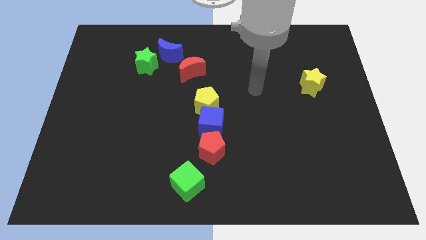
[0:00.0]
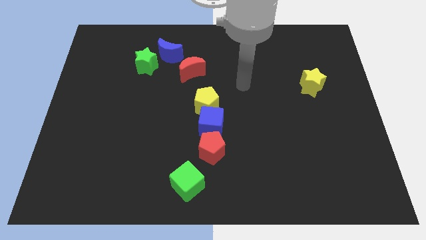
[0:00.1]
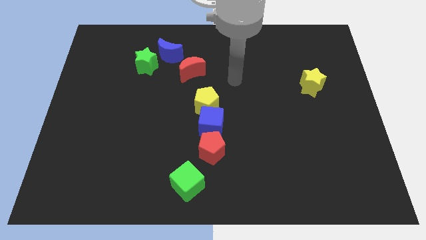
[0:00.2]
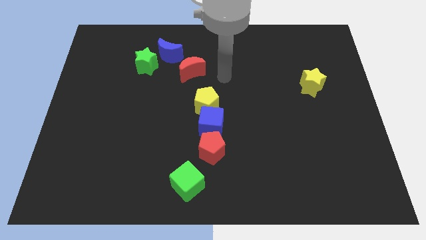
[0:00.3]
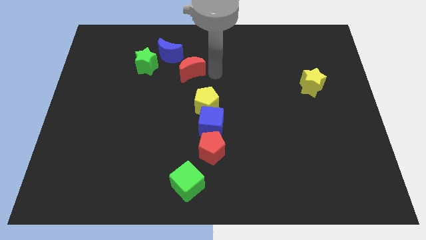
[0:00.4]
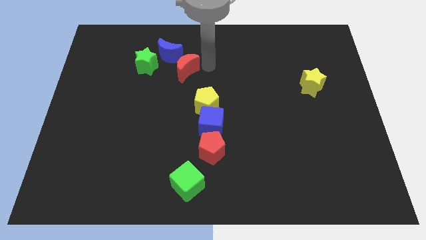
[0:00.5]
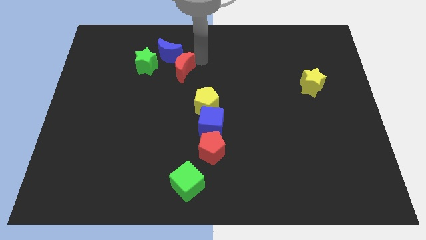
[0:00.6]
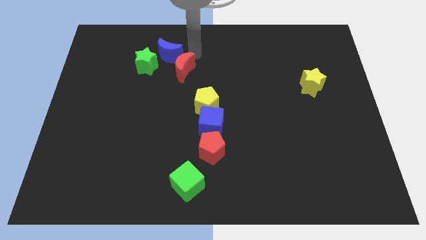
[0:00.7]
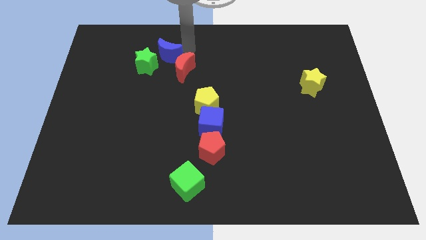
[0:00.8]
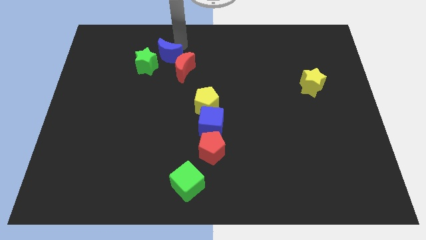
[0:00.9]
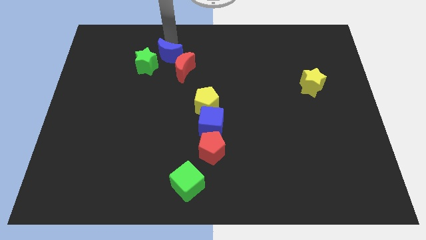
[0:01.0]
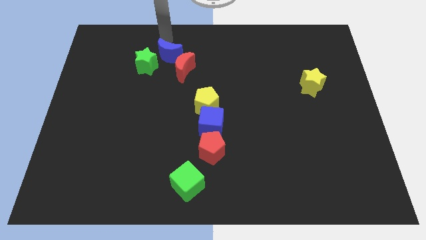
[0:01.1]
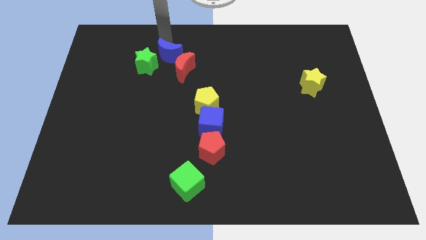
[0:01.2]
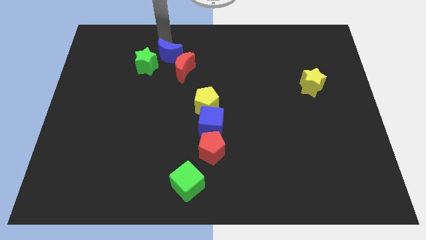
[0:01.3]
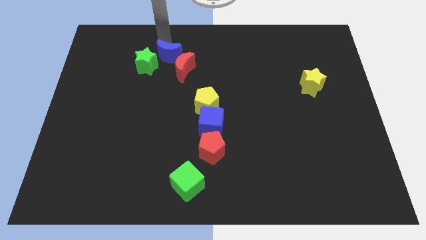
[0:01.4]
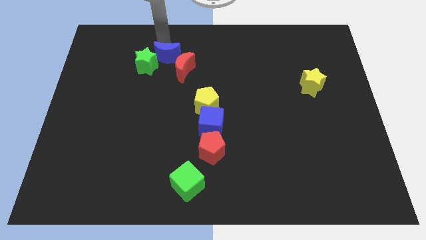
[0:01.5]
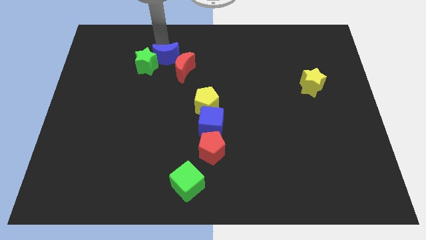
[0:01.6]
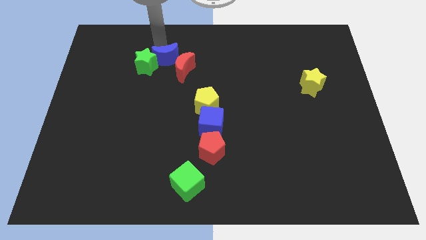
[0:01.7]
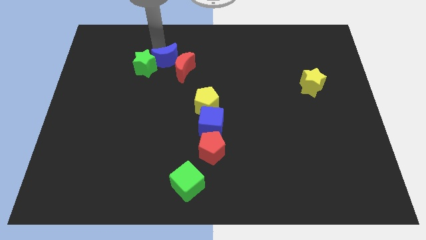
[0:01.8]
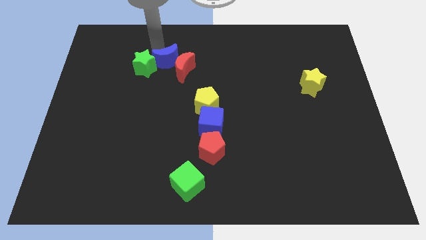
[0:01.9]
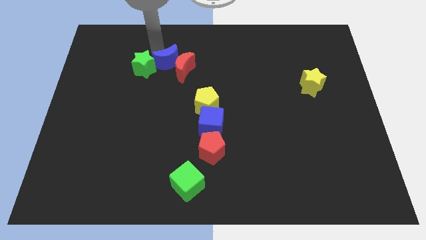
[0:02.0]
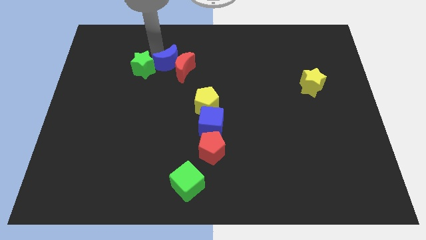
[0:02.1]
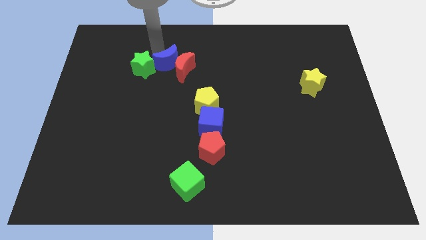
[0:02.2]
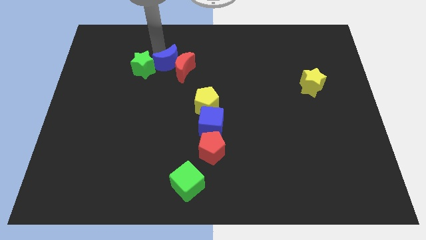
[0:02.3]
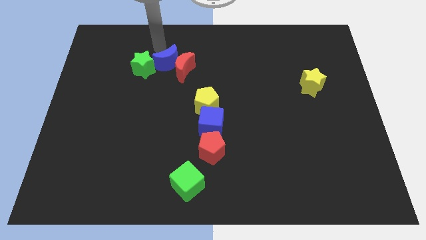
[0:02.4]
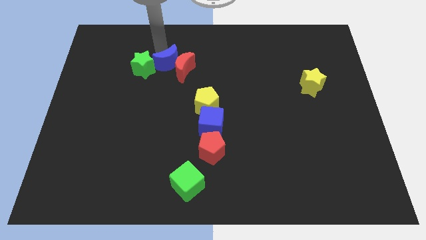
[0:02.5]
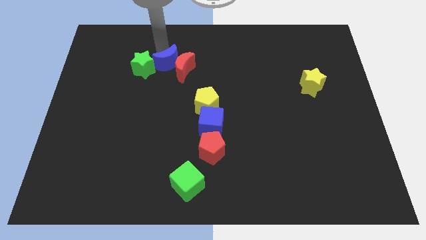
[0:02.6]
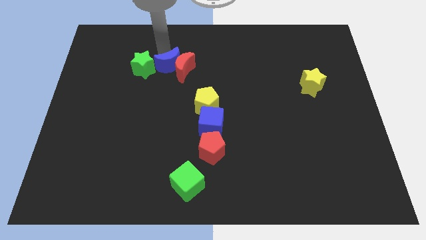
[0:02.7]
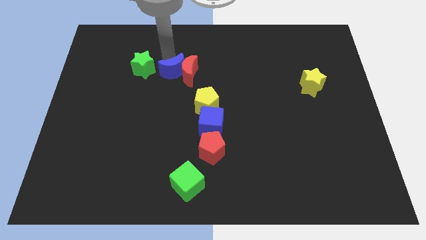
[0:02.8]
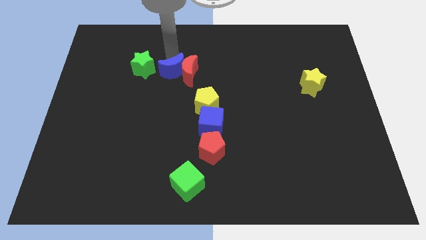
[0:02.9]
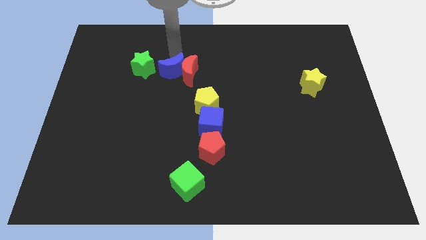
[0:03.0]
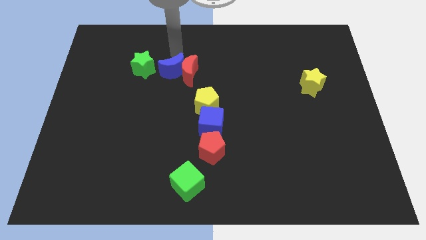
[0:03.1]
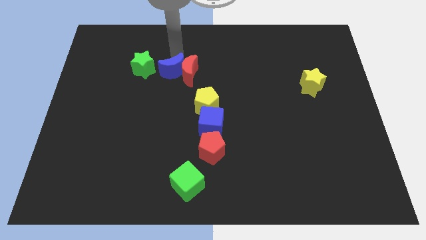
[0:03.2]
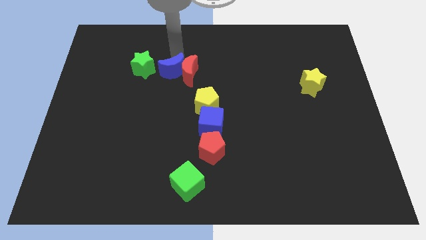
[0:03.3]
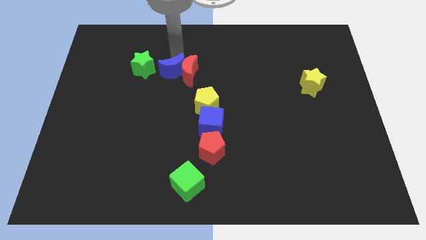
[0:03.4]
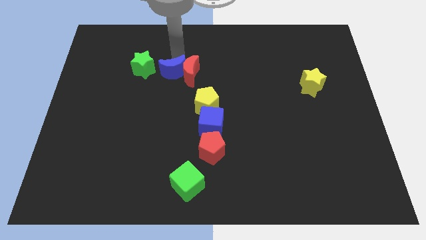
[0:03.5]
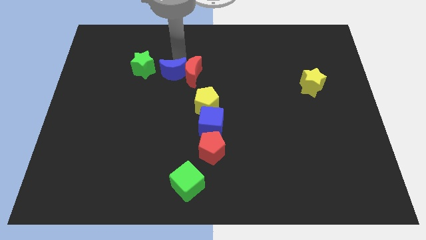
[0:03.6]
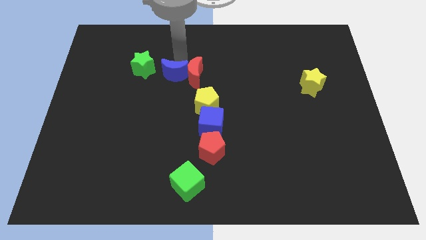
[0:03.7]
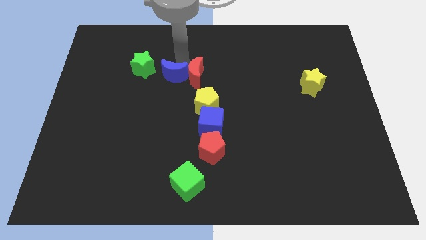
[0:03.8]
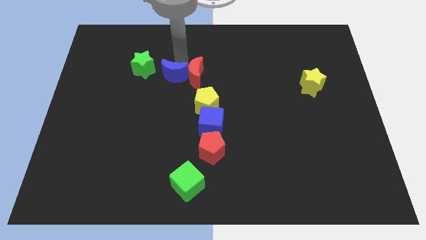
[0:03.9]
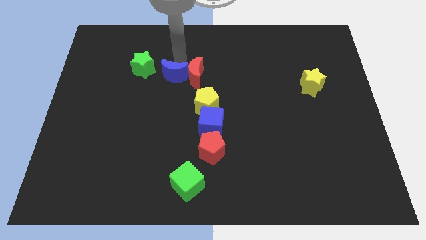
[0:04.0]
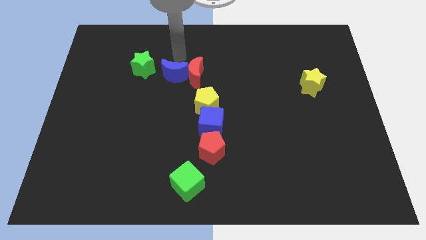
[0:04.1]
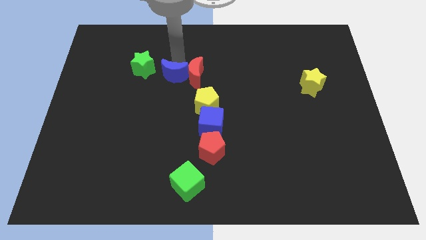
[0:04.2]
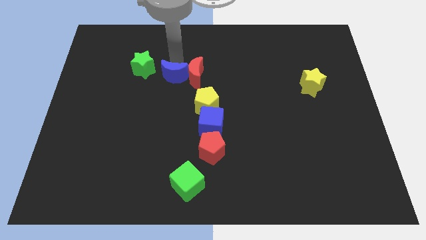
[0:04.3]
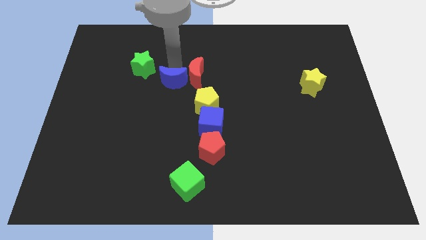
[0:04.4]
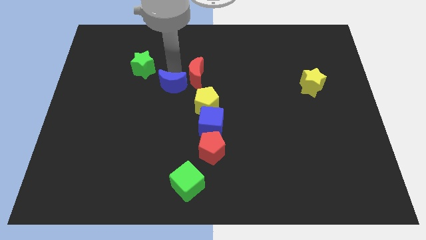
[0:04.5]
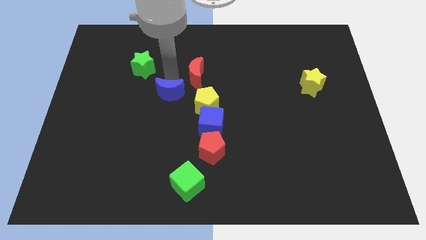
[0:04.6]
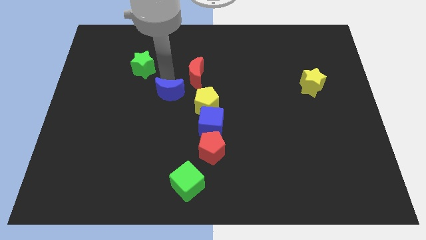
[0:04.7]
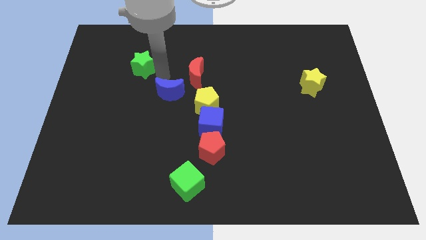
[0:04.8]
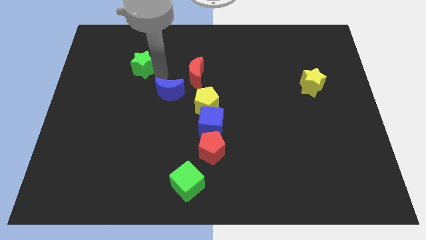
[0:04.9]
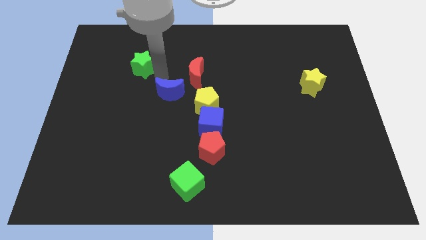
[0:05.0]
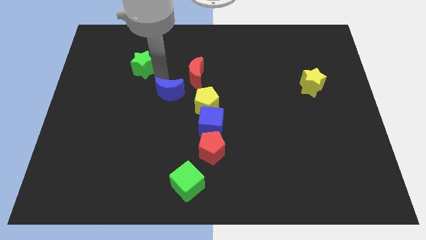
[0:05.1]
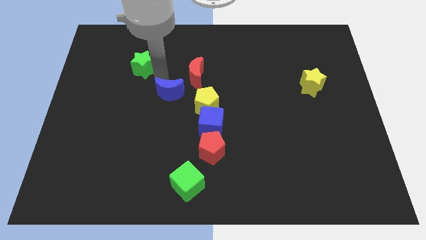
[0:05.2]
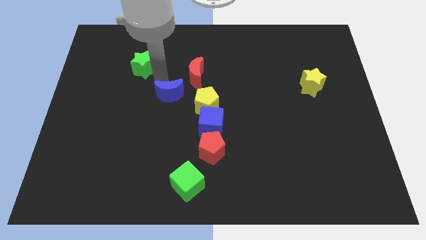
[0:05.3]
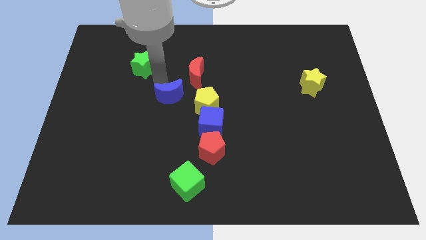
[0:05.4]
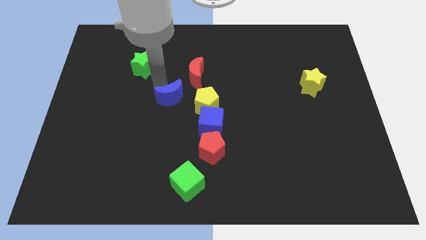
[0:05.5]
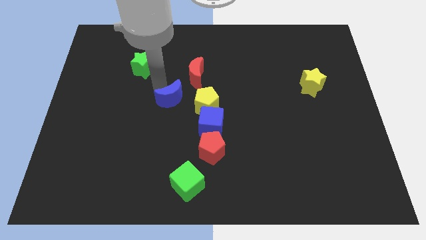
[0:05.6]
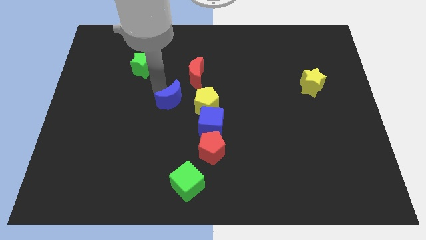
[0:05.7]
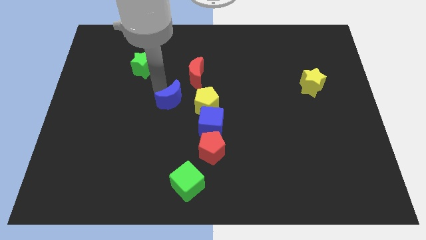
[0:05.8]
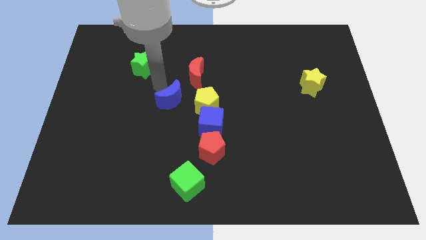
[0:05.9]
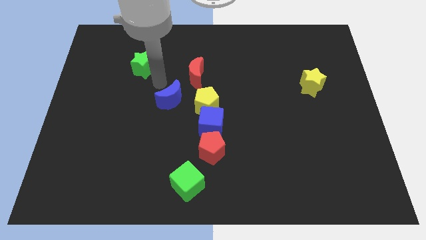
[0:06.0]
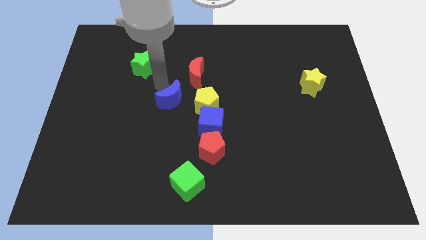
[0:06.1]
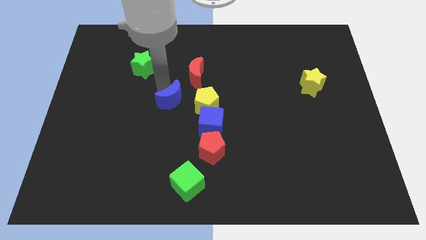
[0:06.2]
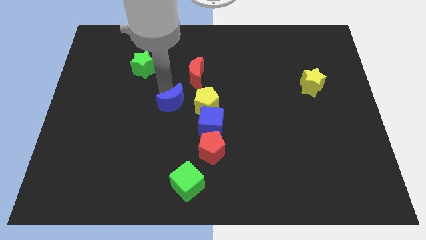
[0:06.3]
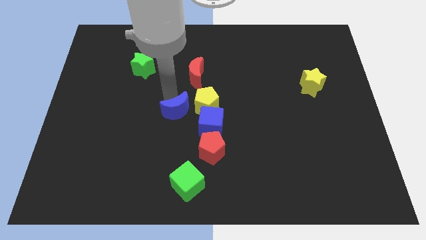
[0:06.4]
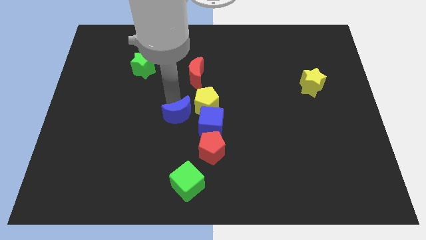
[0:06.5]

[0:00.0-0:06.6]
slide the blue moon to the top left side of the red pentagon

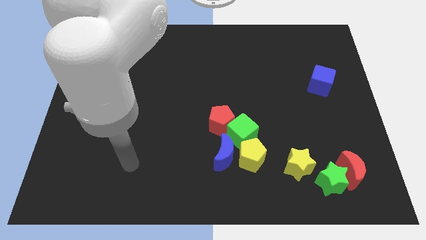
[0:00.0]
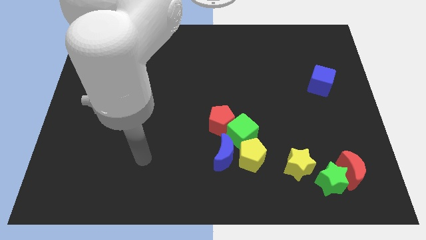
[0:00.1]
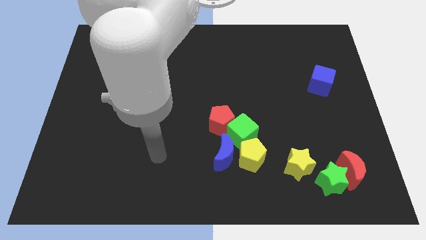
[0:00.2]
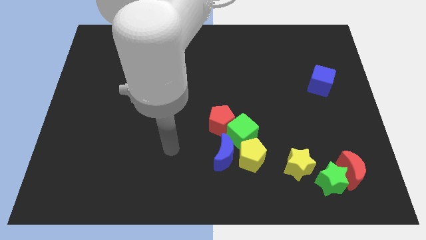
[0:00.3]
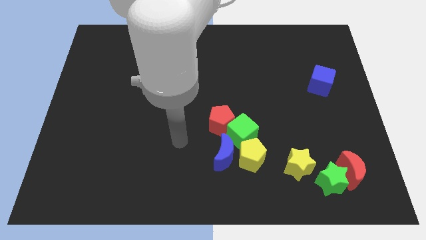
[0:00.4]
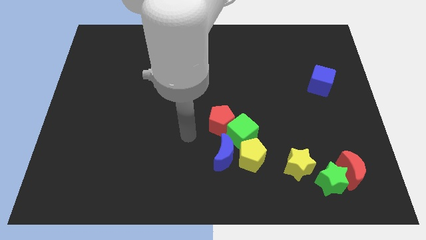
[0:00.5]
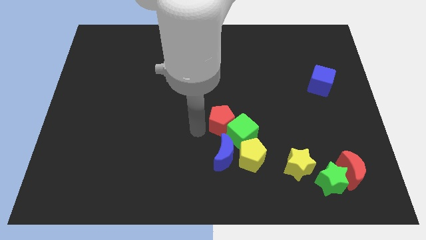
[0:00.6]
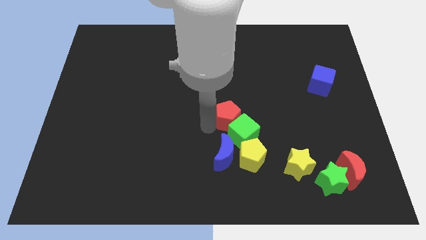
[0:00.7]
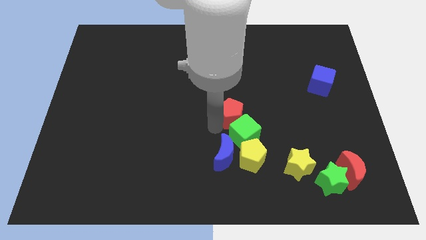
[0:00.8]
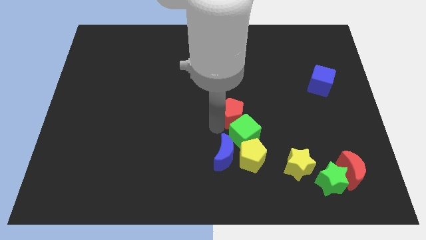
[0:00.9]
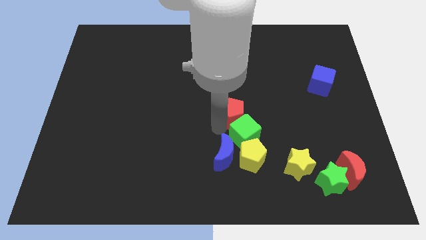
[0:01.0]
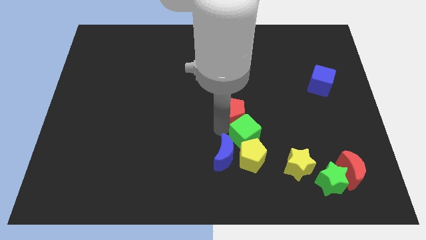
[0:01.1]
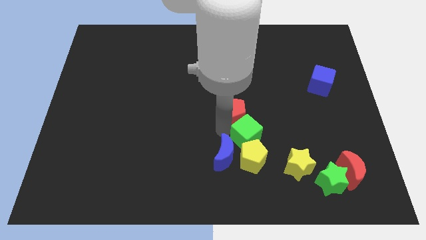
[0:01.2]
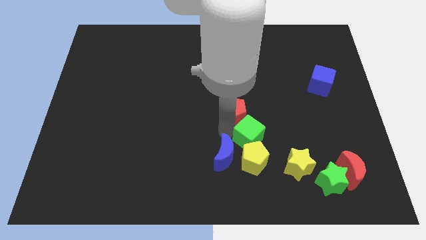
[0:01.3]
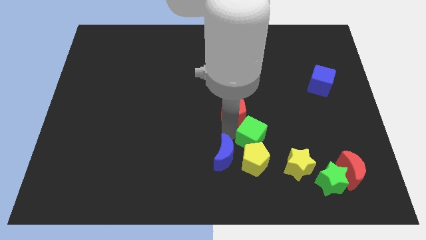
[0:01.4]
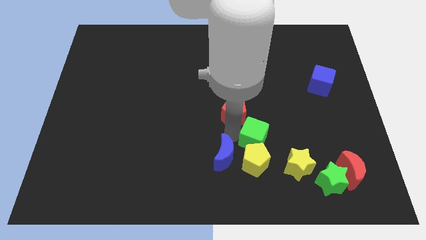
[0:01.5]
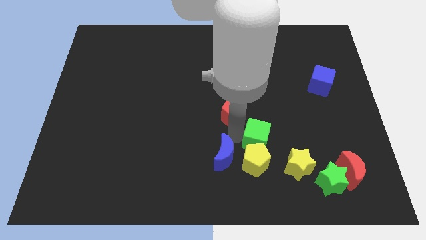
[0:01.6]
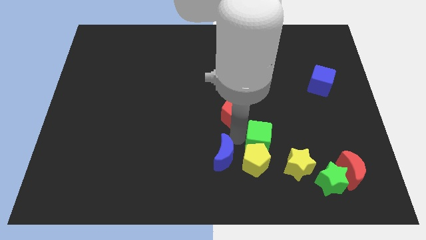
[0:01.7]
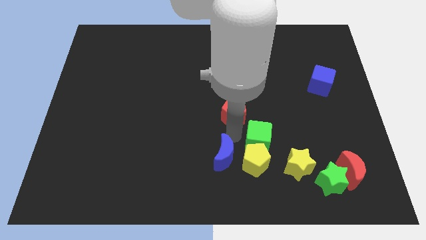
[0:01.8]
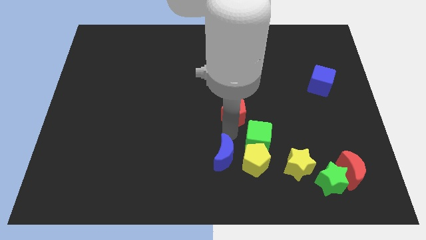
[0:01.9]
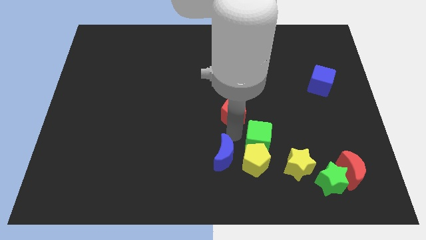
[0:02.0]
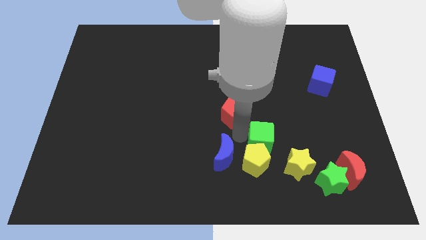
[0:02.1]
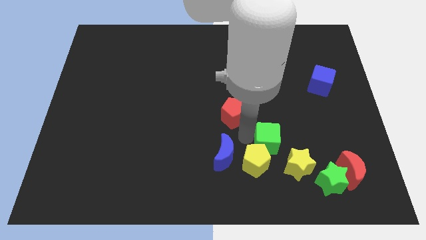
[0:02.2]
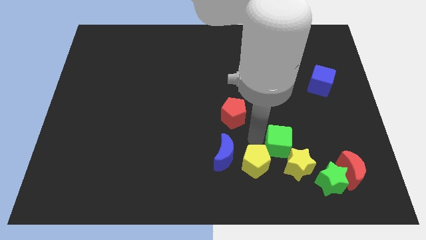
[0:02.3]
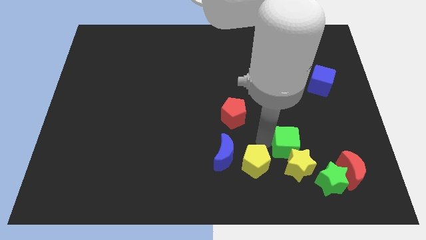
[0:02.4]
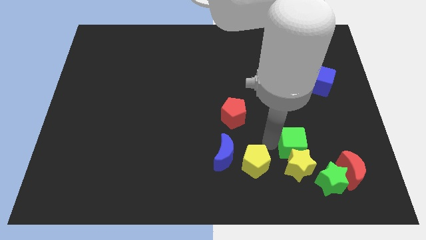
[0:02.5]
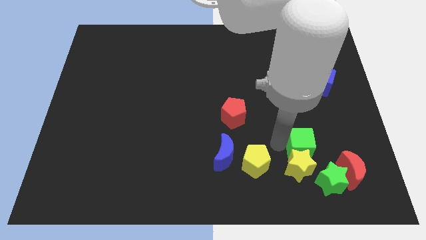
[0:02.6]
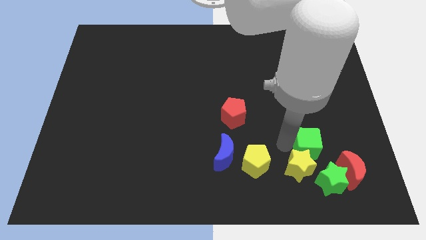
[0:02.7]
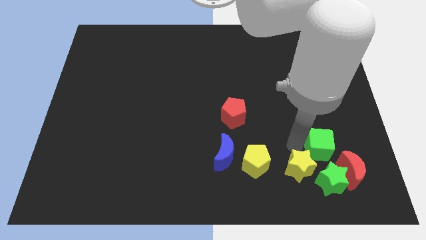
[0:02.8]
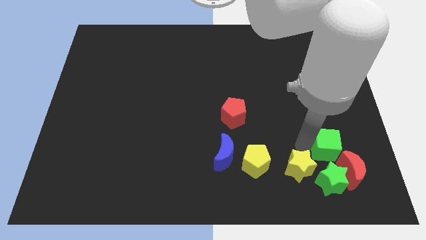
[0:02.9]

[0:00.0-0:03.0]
push the green cube to the right side of the yellow star
